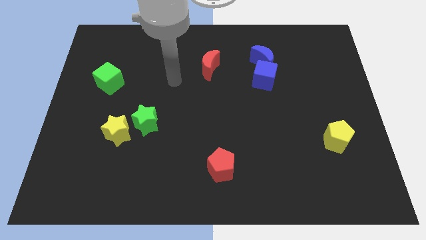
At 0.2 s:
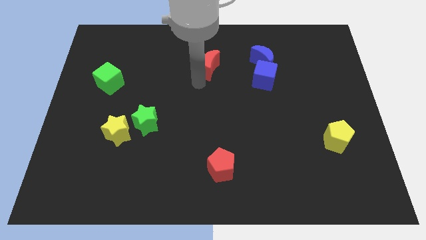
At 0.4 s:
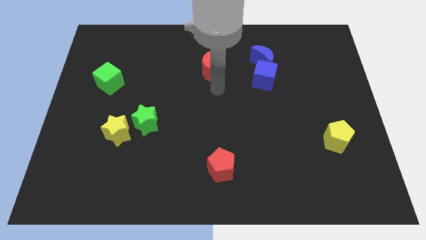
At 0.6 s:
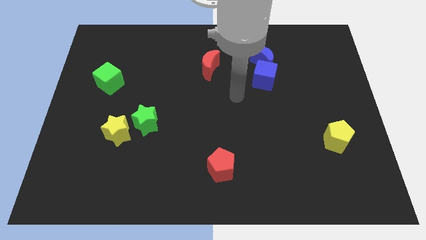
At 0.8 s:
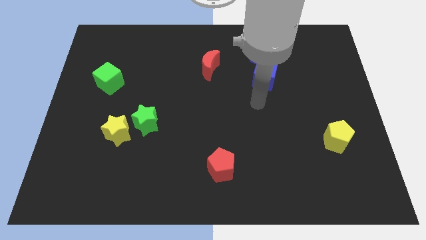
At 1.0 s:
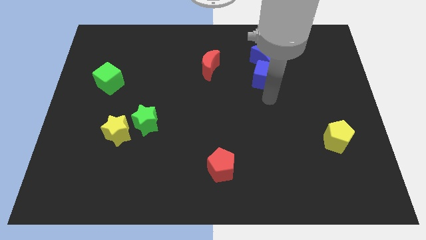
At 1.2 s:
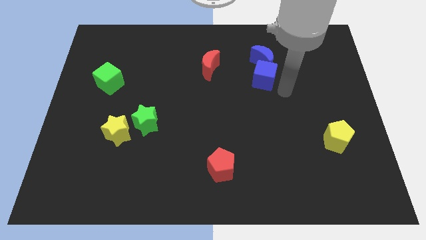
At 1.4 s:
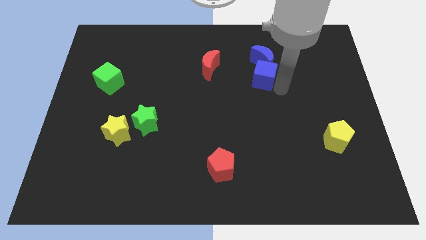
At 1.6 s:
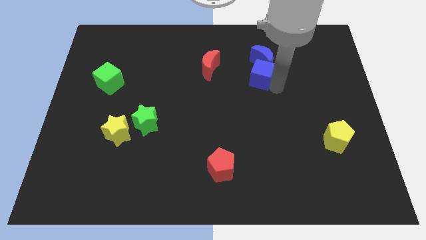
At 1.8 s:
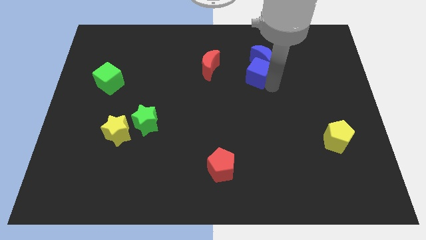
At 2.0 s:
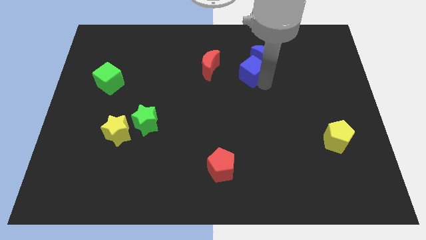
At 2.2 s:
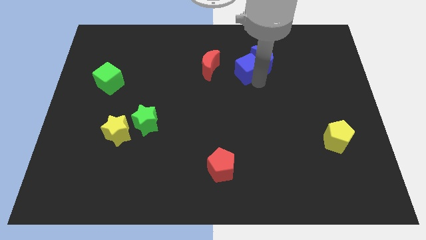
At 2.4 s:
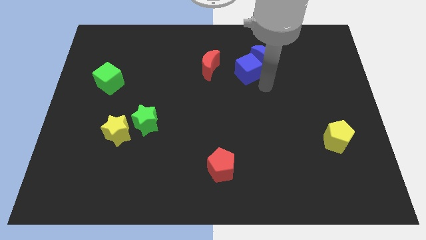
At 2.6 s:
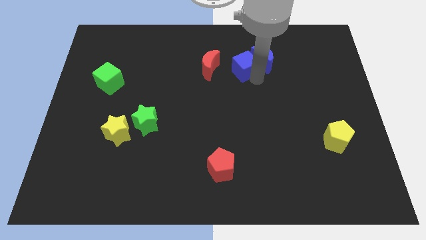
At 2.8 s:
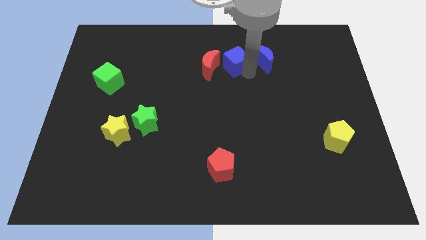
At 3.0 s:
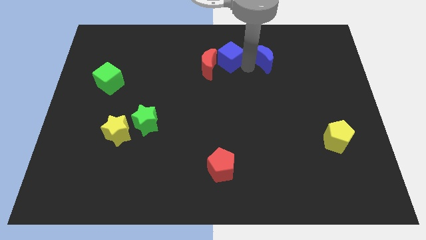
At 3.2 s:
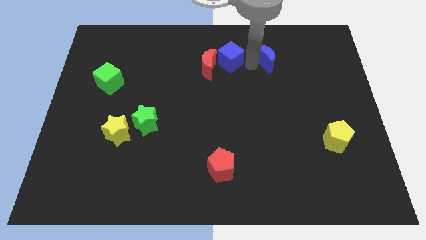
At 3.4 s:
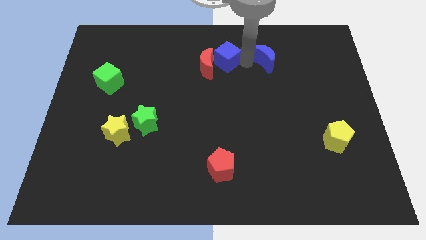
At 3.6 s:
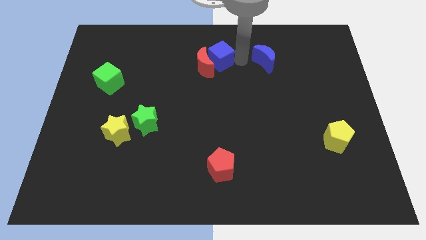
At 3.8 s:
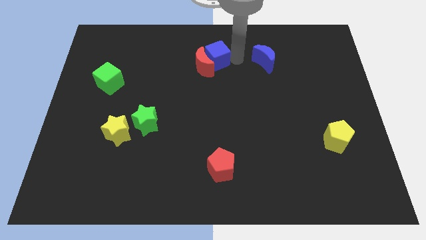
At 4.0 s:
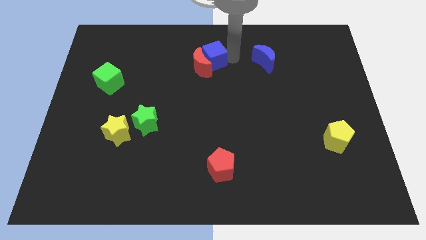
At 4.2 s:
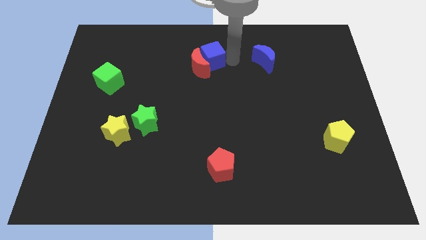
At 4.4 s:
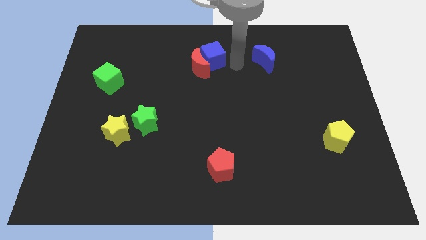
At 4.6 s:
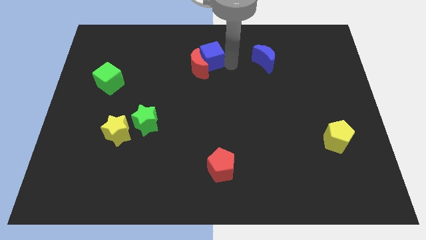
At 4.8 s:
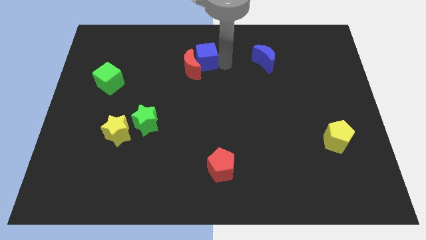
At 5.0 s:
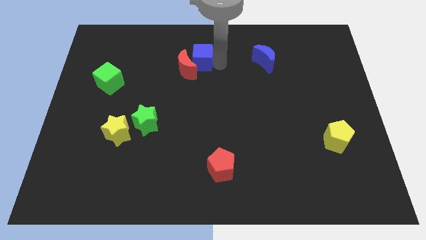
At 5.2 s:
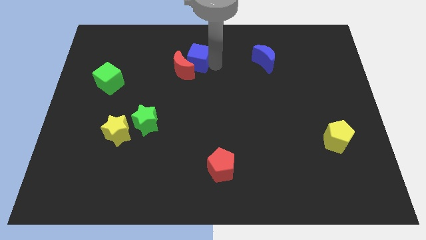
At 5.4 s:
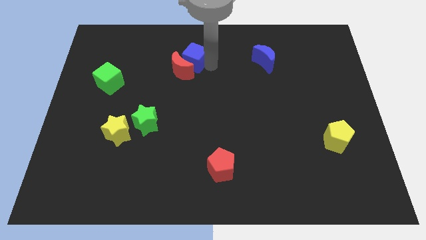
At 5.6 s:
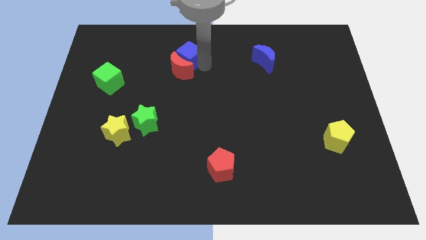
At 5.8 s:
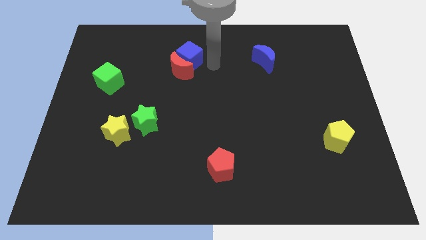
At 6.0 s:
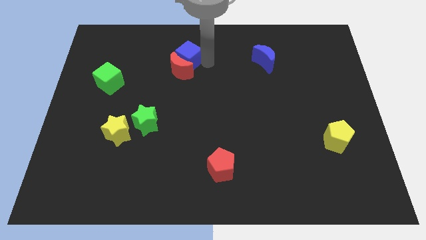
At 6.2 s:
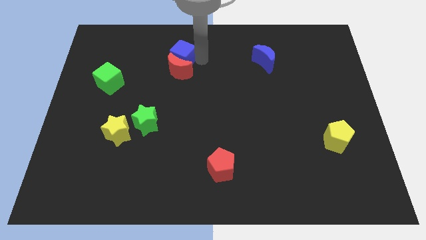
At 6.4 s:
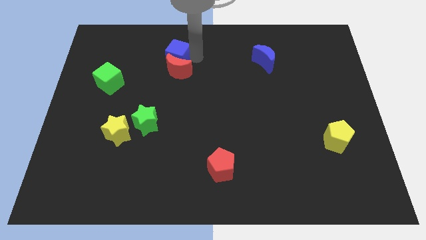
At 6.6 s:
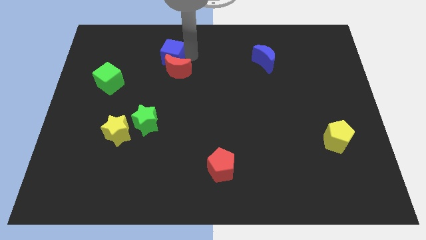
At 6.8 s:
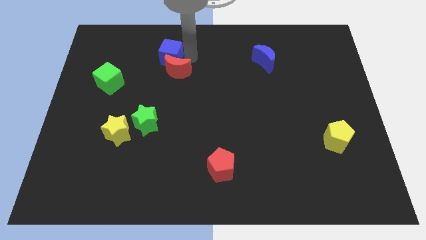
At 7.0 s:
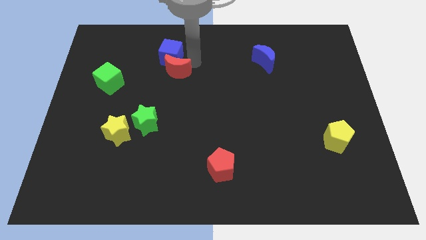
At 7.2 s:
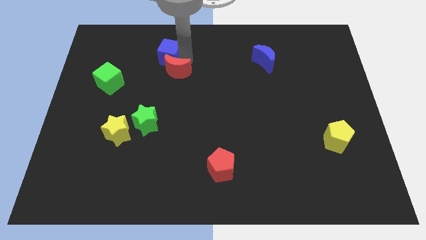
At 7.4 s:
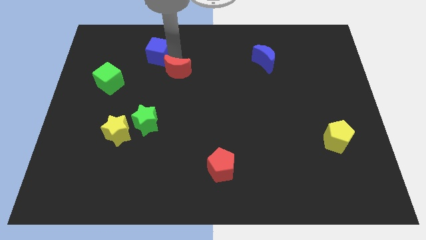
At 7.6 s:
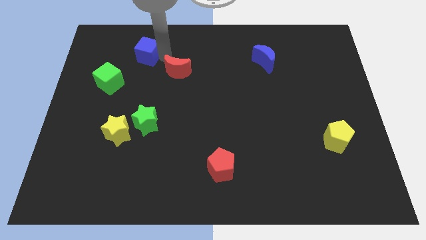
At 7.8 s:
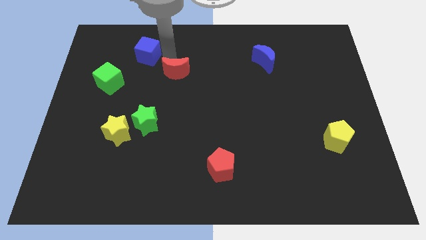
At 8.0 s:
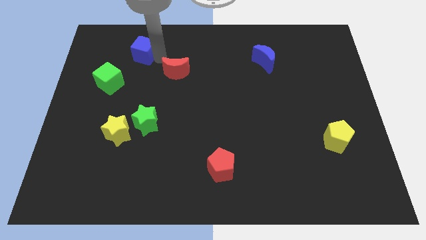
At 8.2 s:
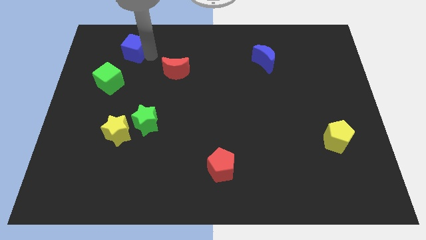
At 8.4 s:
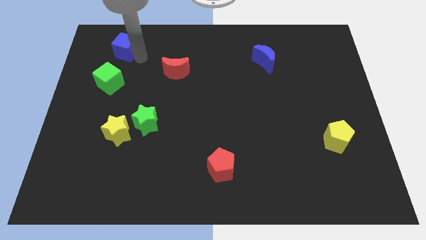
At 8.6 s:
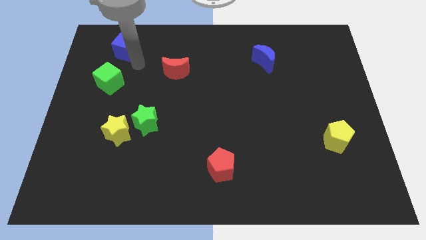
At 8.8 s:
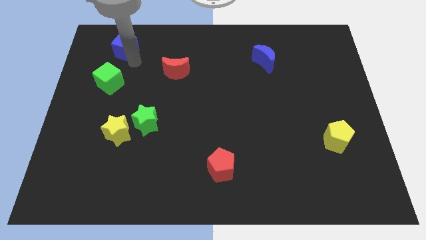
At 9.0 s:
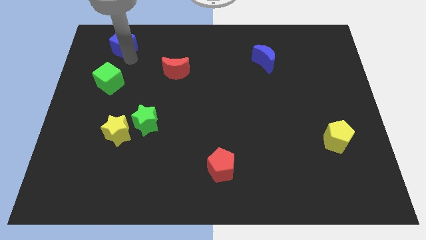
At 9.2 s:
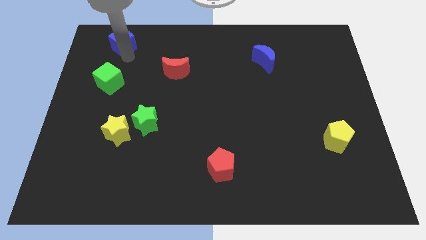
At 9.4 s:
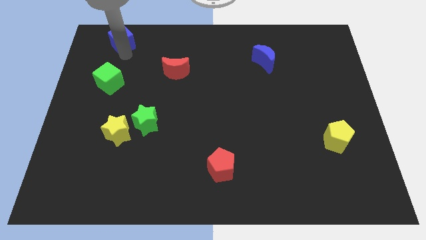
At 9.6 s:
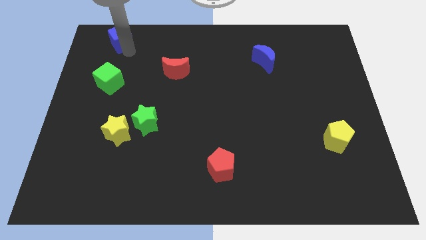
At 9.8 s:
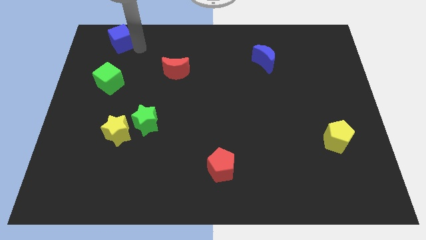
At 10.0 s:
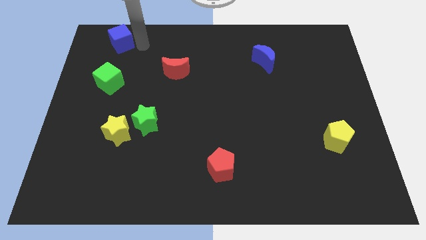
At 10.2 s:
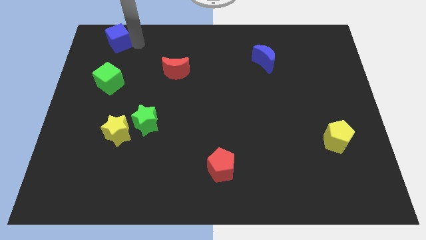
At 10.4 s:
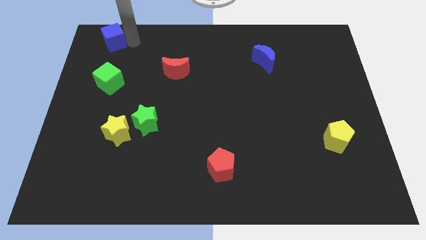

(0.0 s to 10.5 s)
put the blue cube to the upper left corner

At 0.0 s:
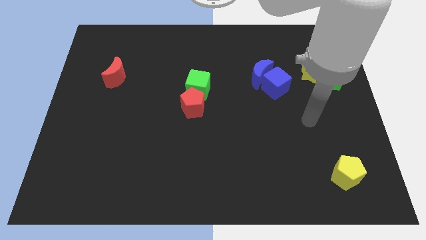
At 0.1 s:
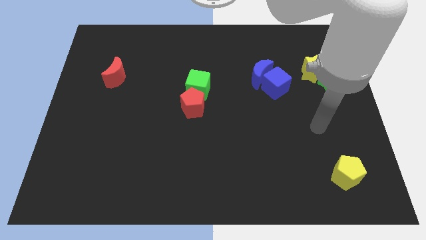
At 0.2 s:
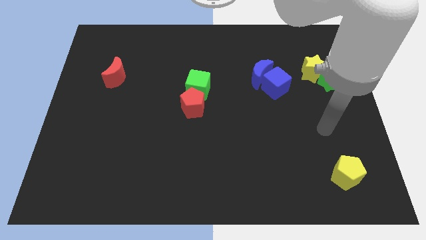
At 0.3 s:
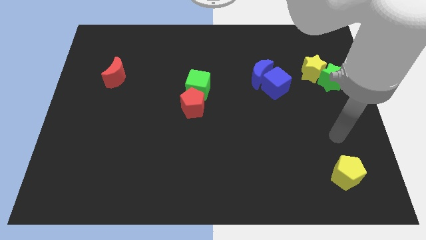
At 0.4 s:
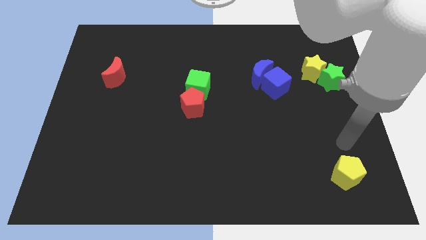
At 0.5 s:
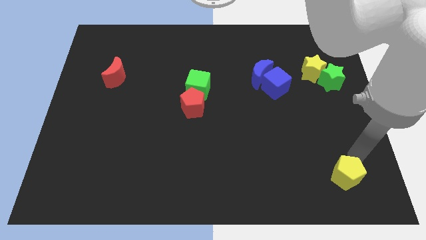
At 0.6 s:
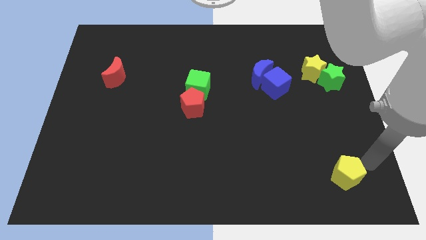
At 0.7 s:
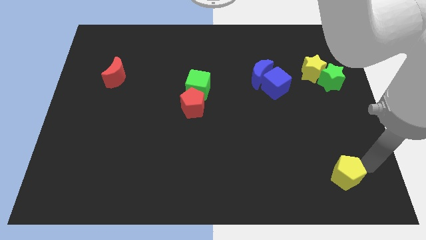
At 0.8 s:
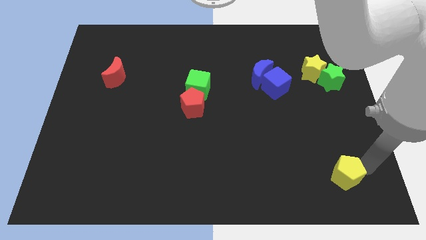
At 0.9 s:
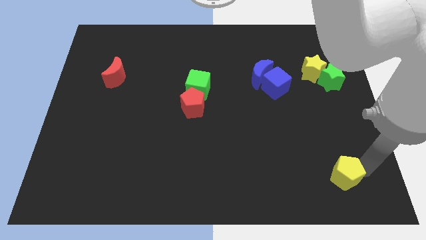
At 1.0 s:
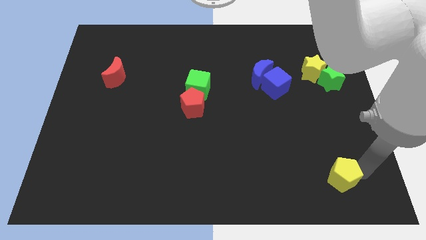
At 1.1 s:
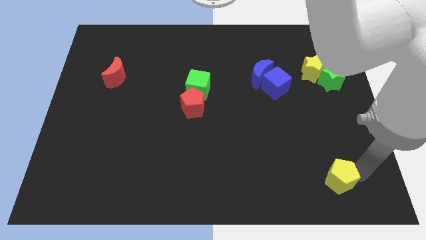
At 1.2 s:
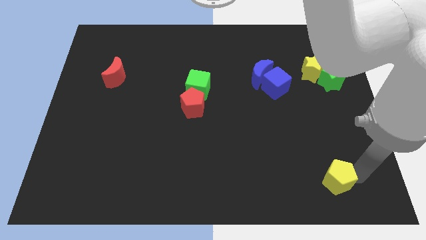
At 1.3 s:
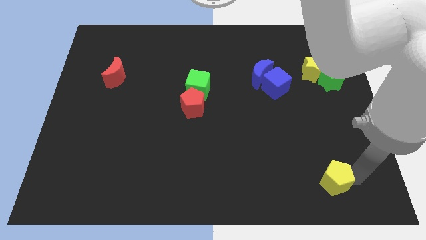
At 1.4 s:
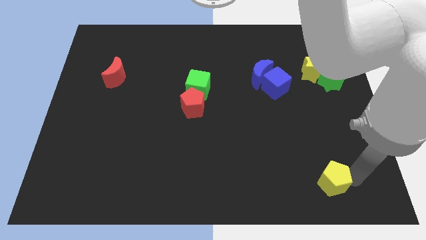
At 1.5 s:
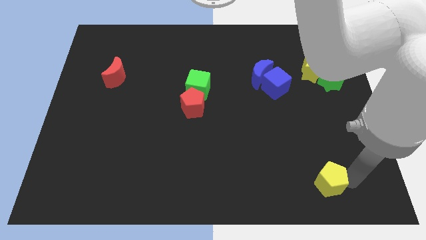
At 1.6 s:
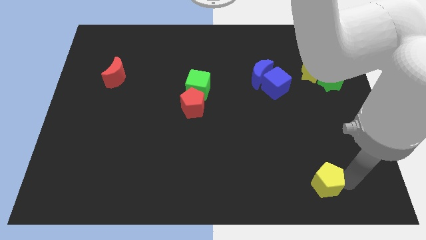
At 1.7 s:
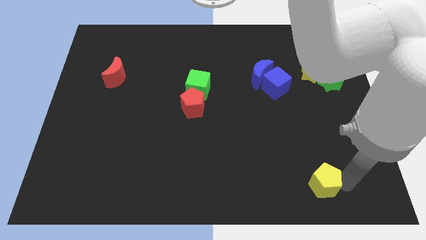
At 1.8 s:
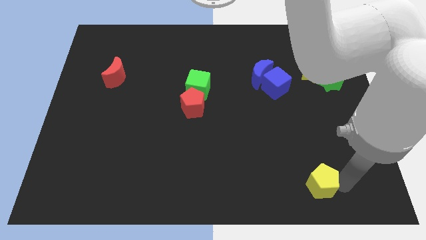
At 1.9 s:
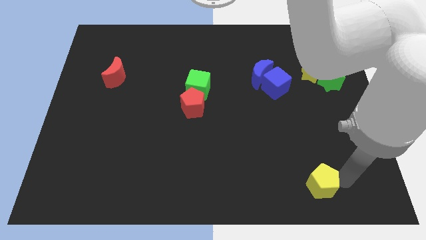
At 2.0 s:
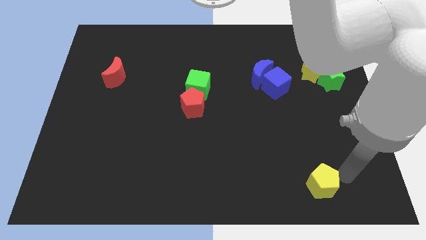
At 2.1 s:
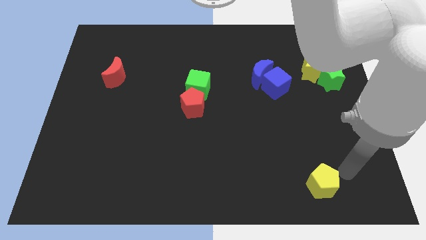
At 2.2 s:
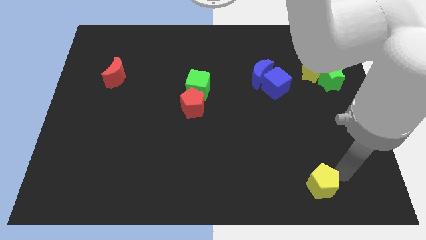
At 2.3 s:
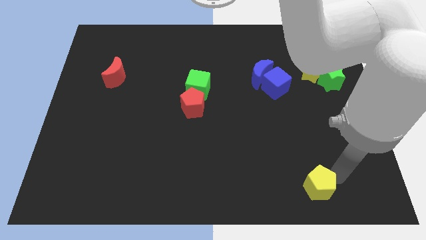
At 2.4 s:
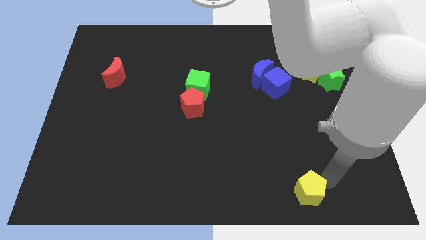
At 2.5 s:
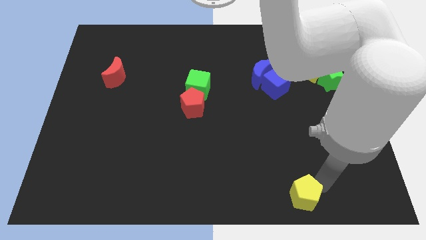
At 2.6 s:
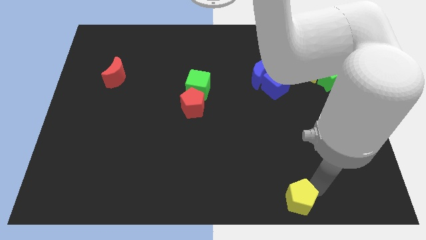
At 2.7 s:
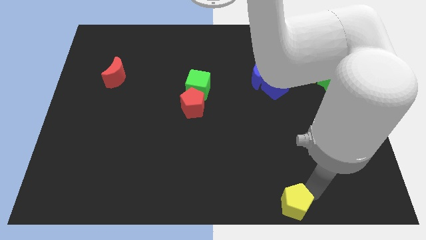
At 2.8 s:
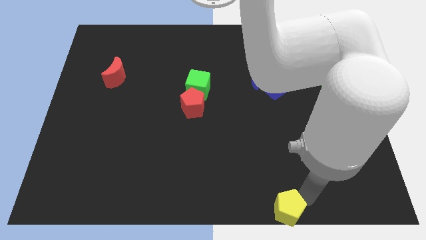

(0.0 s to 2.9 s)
slide the yellow pentagon to the bottom
